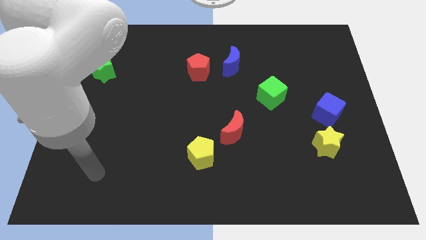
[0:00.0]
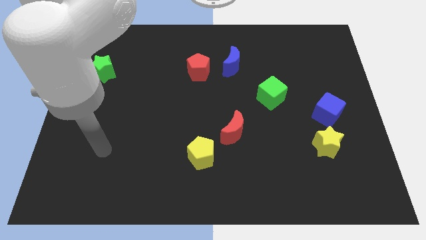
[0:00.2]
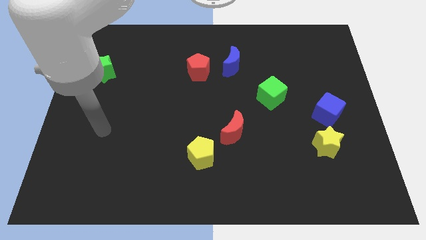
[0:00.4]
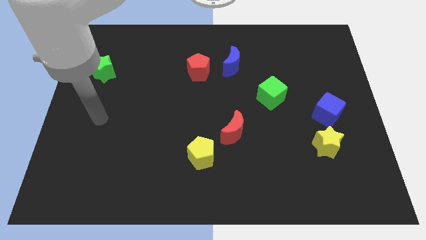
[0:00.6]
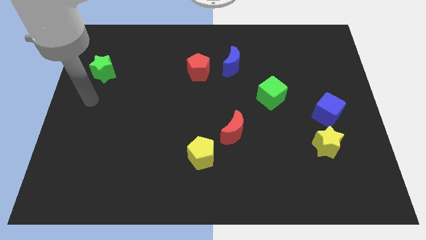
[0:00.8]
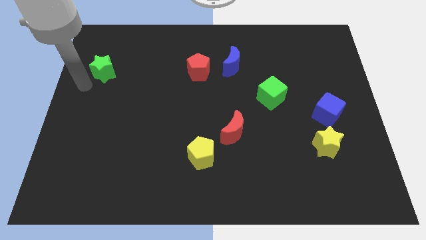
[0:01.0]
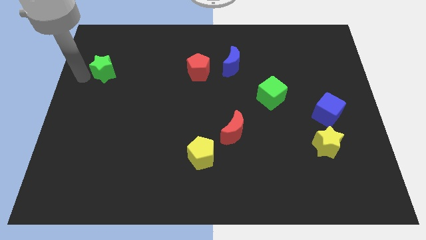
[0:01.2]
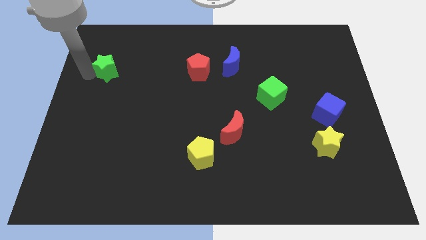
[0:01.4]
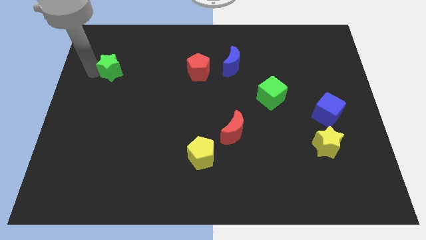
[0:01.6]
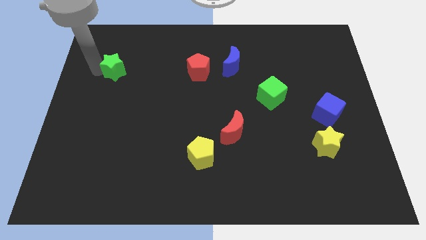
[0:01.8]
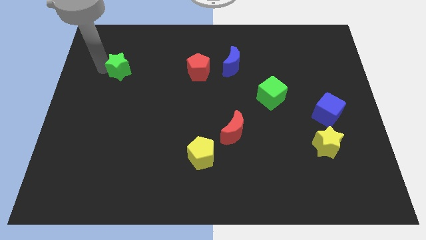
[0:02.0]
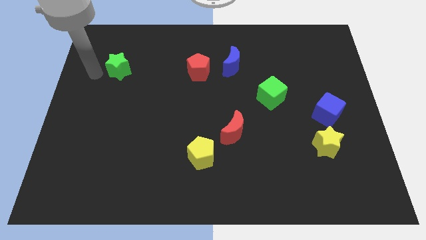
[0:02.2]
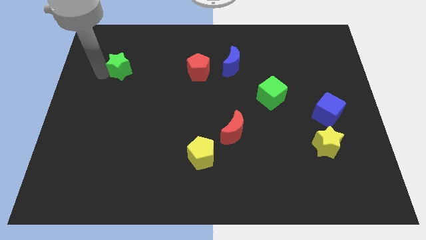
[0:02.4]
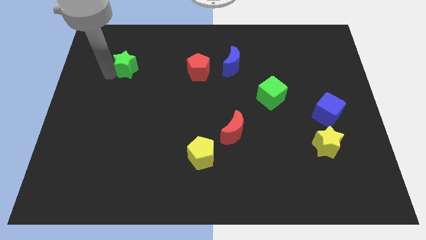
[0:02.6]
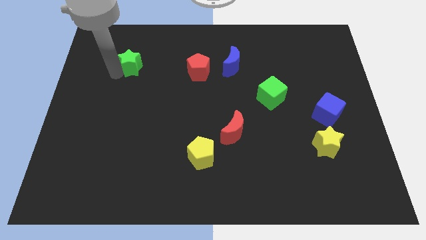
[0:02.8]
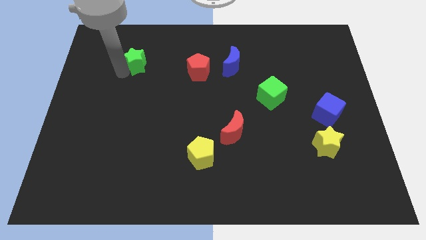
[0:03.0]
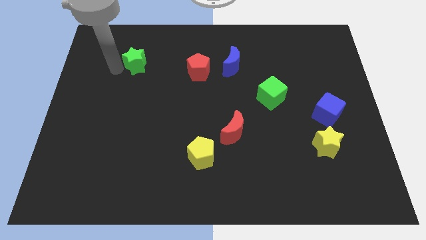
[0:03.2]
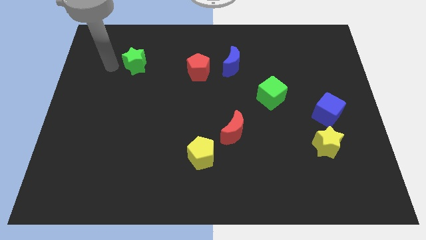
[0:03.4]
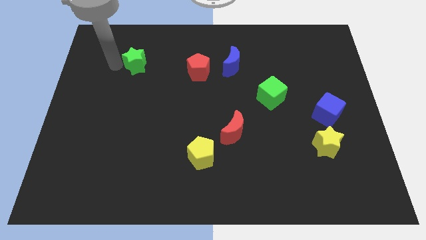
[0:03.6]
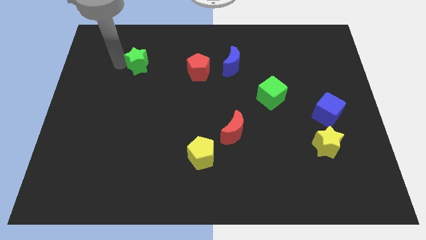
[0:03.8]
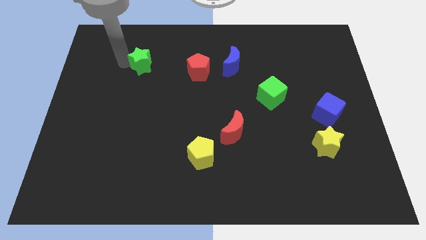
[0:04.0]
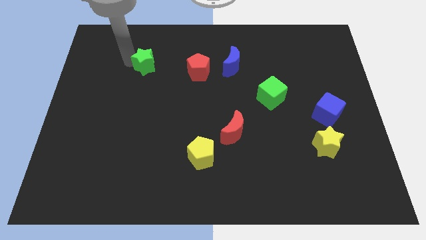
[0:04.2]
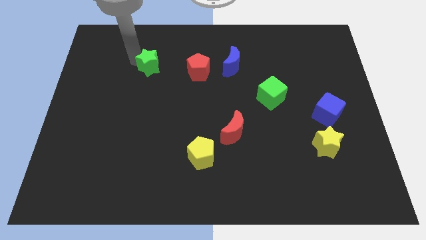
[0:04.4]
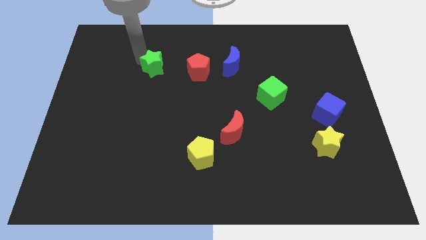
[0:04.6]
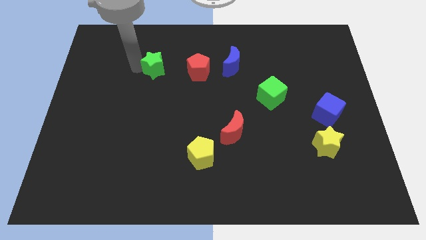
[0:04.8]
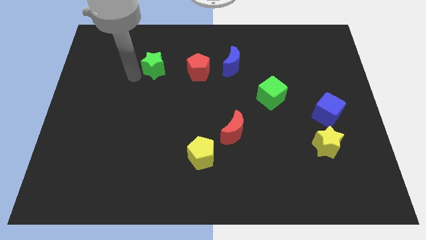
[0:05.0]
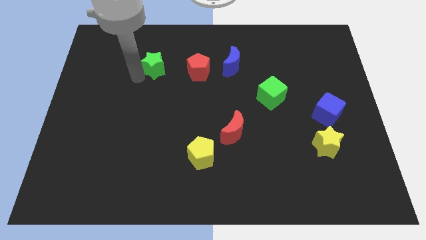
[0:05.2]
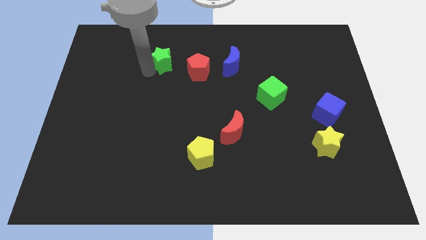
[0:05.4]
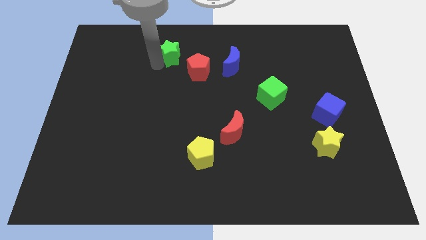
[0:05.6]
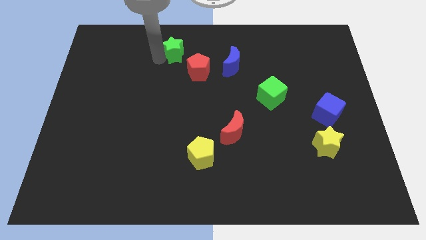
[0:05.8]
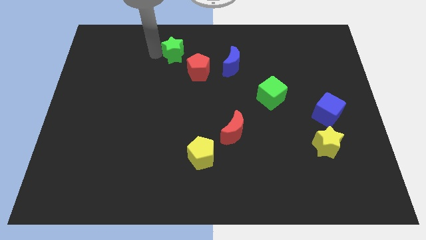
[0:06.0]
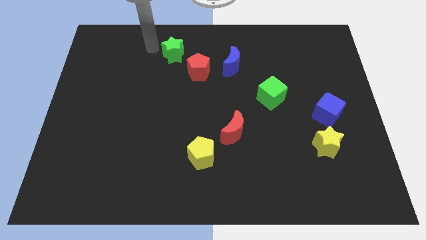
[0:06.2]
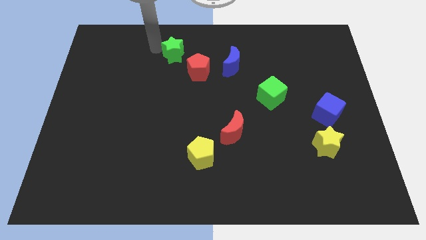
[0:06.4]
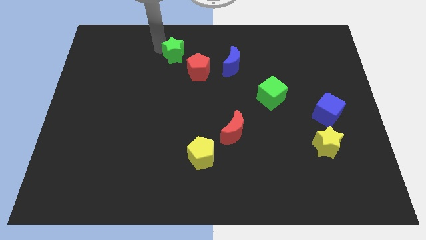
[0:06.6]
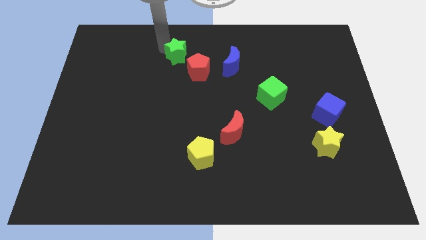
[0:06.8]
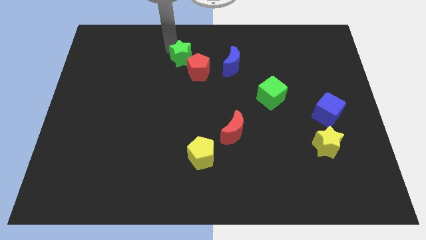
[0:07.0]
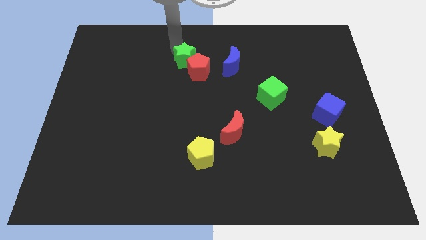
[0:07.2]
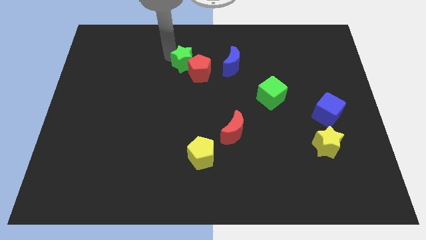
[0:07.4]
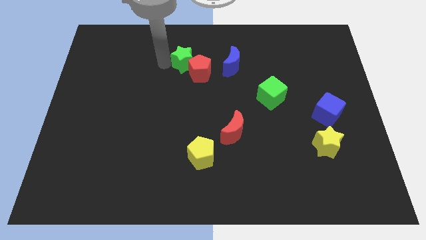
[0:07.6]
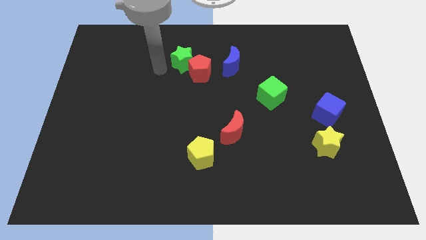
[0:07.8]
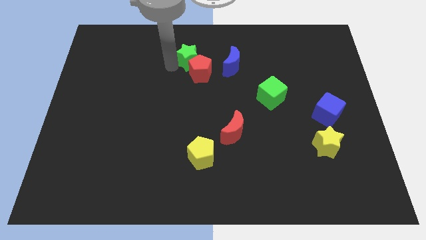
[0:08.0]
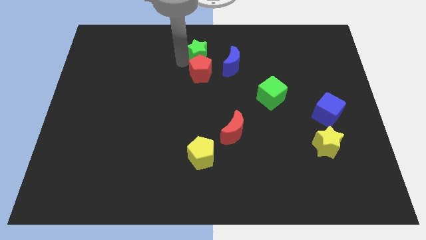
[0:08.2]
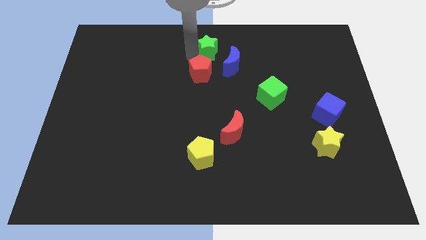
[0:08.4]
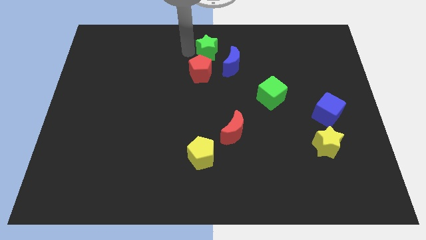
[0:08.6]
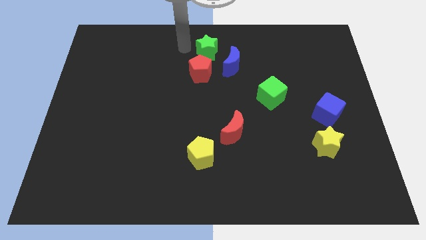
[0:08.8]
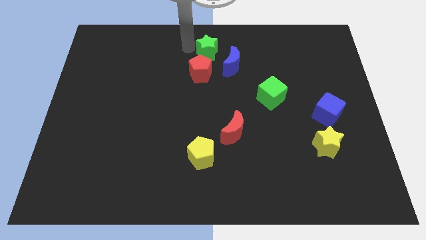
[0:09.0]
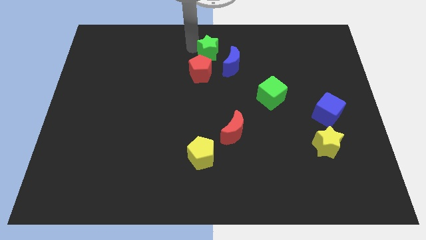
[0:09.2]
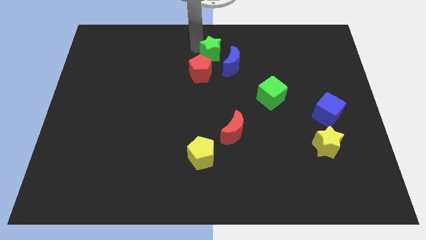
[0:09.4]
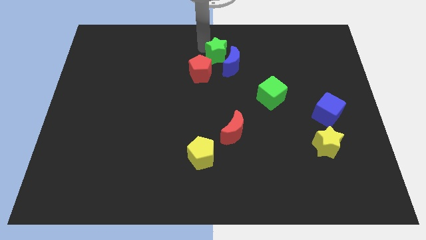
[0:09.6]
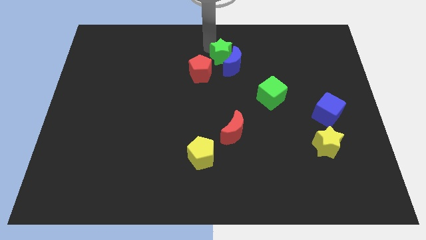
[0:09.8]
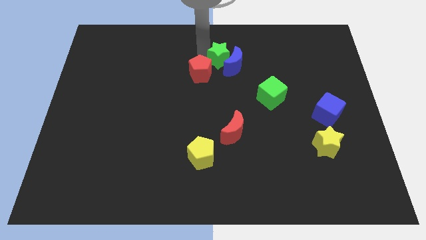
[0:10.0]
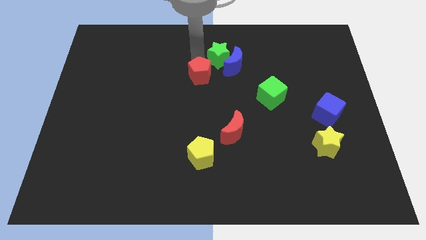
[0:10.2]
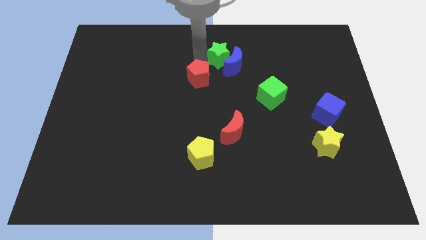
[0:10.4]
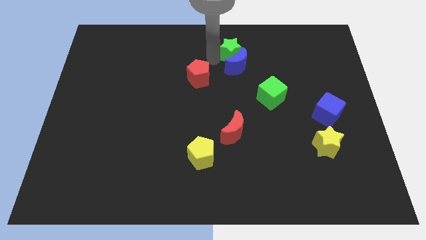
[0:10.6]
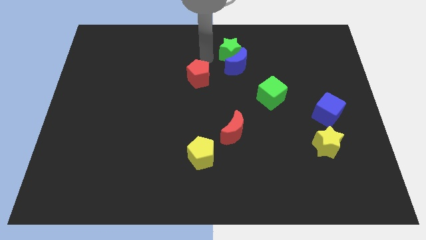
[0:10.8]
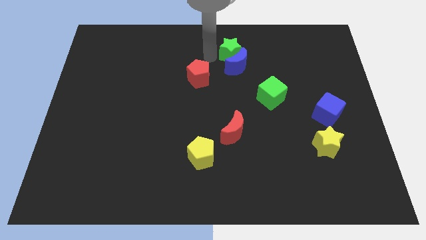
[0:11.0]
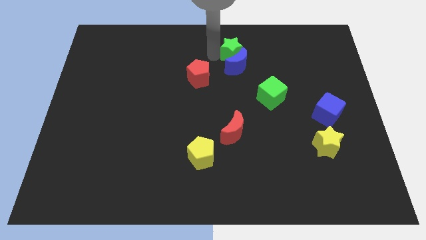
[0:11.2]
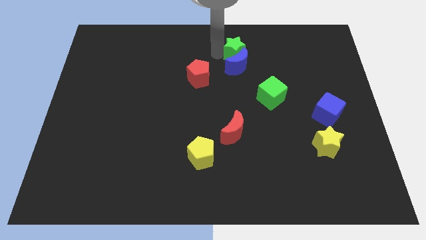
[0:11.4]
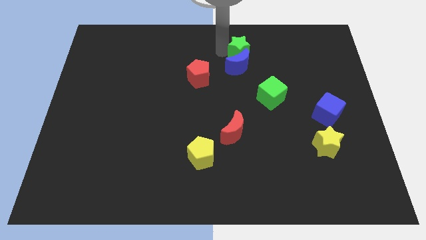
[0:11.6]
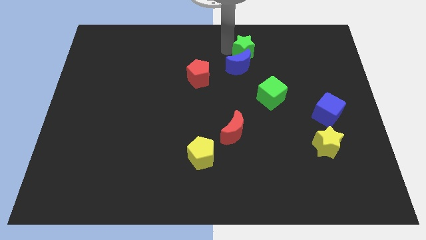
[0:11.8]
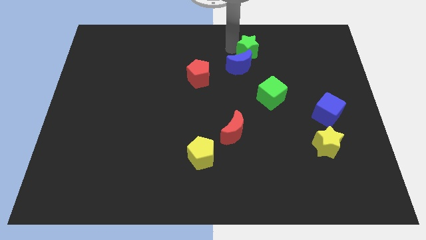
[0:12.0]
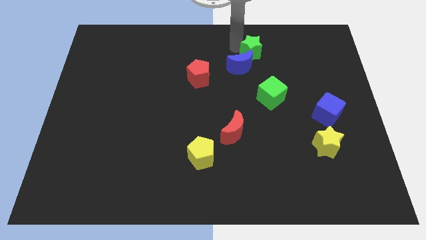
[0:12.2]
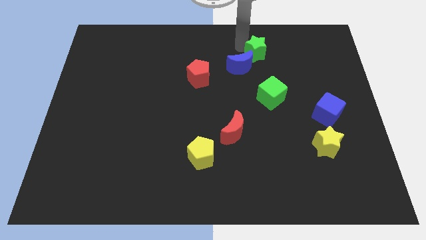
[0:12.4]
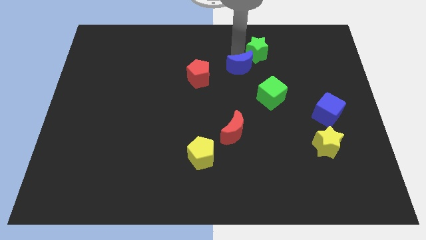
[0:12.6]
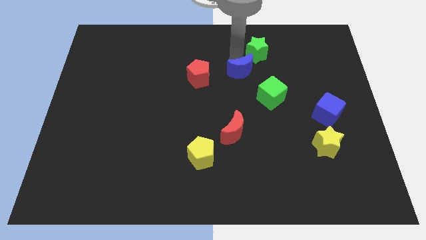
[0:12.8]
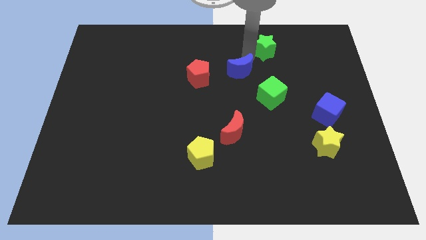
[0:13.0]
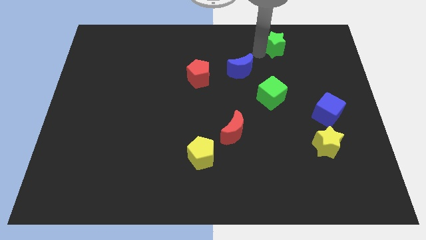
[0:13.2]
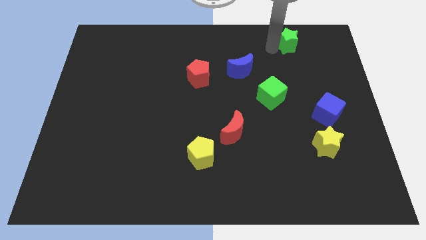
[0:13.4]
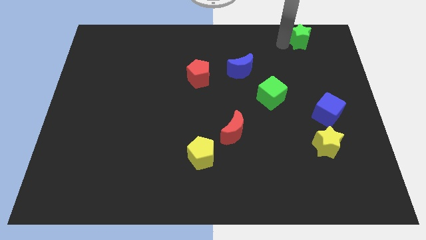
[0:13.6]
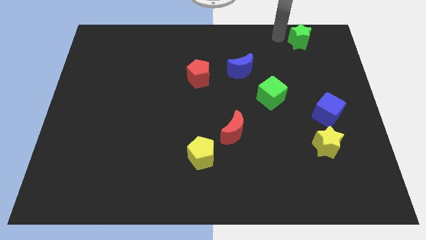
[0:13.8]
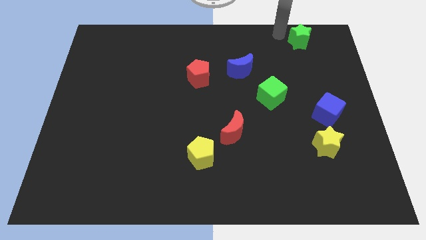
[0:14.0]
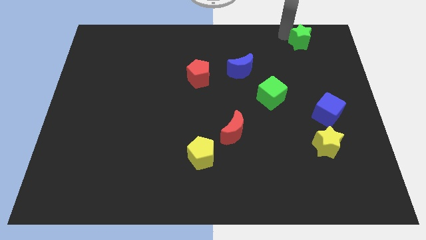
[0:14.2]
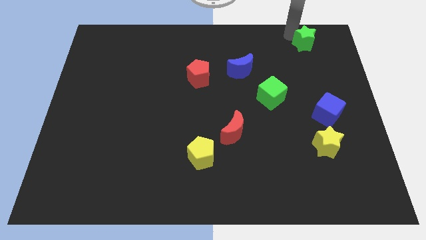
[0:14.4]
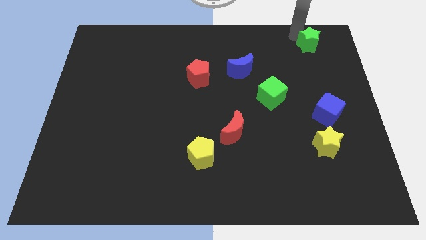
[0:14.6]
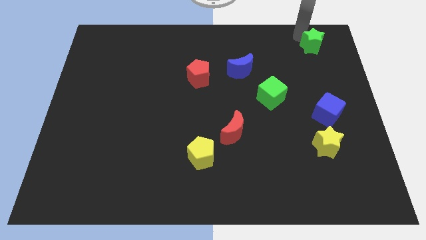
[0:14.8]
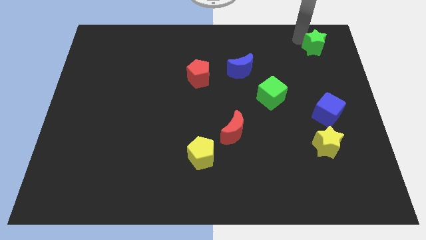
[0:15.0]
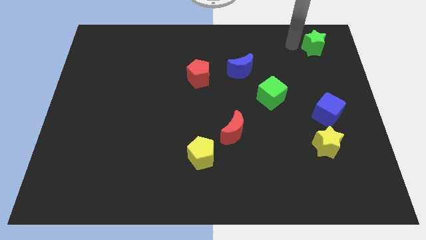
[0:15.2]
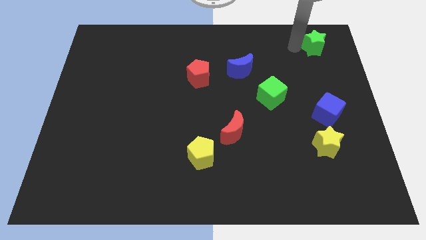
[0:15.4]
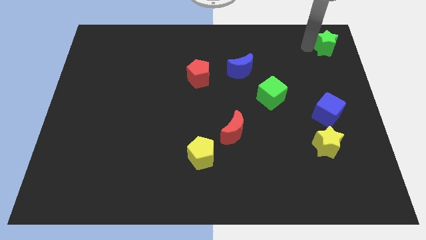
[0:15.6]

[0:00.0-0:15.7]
put the green star to the top right of the board
